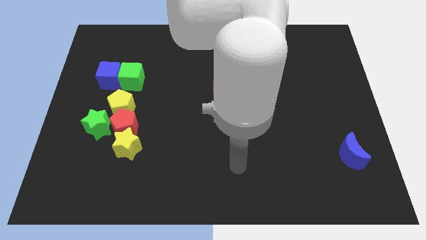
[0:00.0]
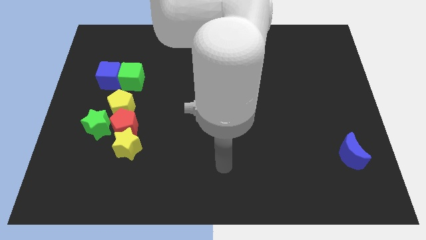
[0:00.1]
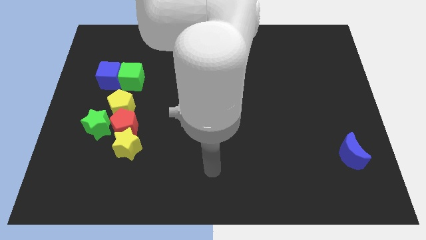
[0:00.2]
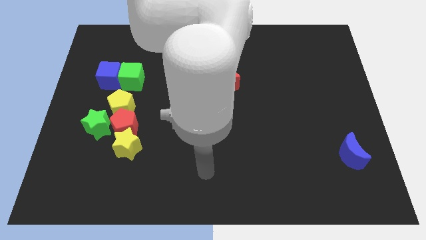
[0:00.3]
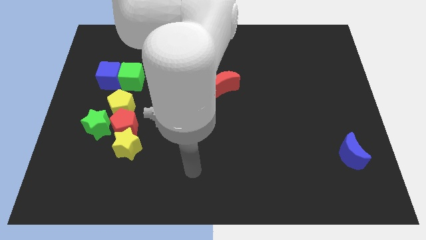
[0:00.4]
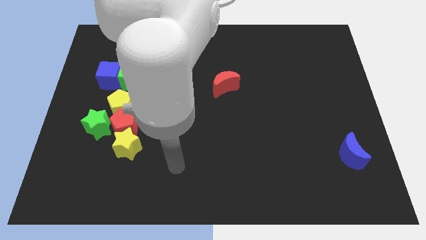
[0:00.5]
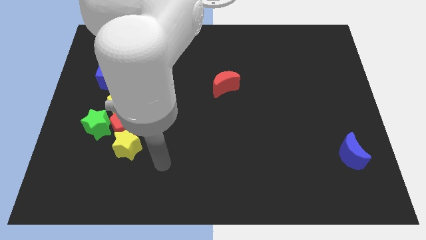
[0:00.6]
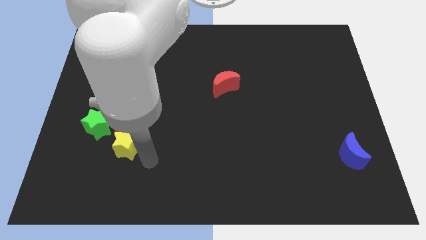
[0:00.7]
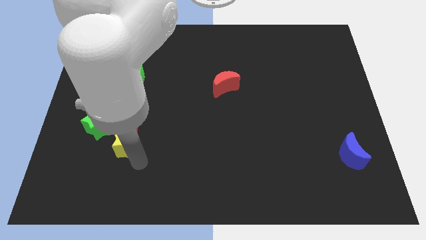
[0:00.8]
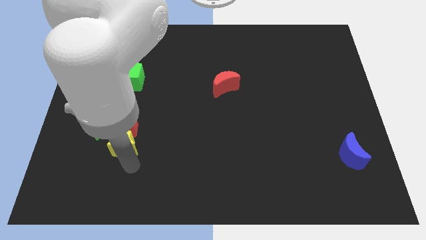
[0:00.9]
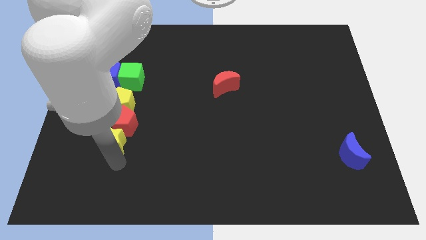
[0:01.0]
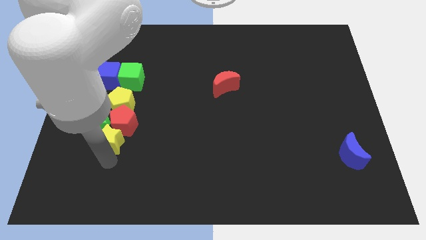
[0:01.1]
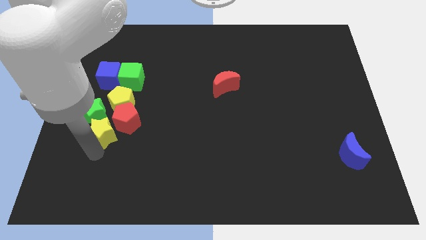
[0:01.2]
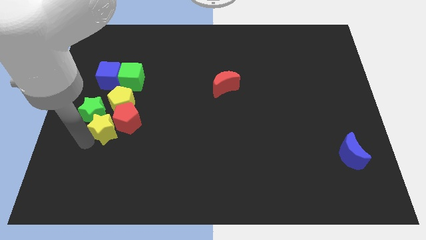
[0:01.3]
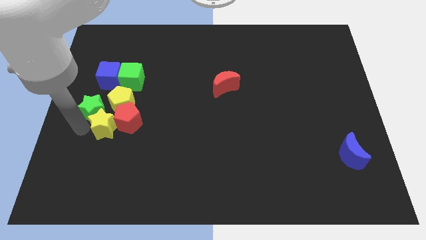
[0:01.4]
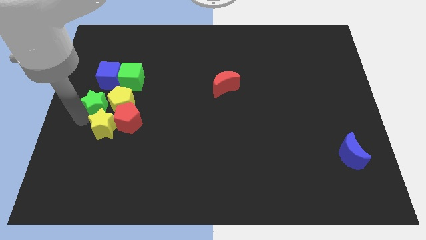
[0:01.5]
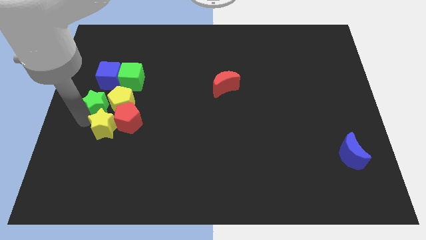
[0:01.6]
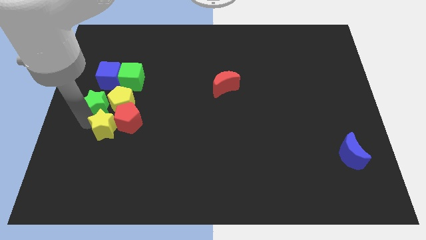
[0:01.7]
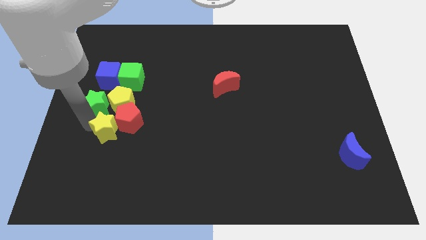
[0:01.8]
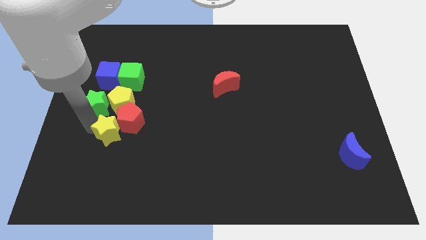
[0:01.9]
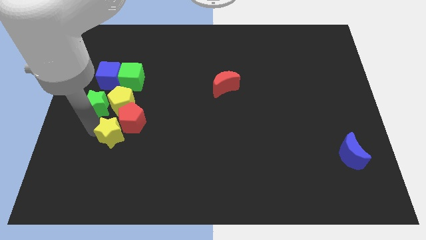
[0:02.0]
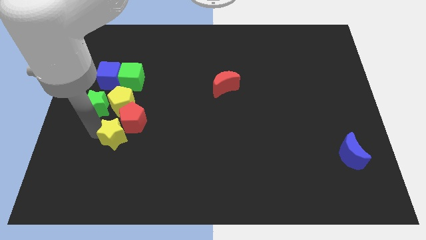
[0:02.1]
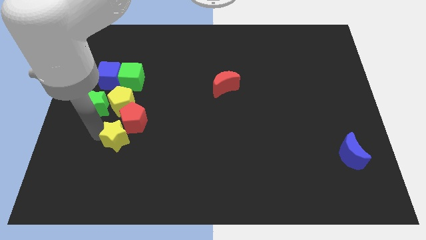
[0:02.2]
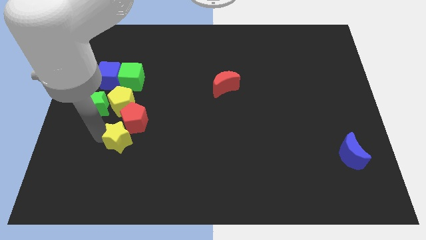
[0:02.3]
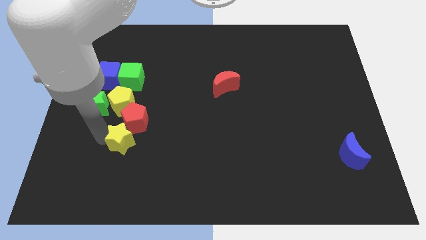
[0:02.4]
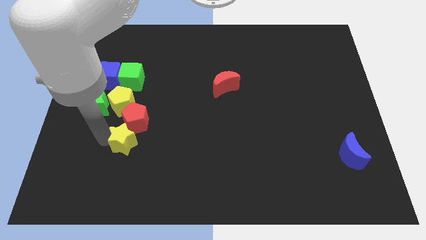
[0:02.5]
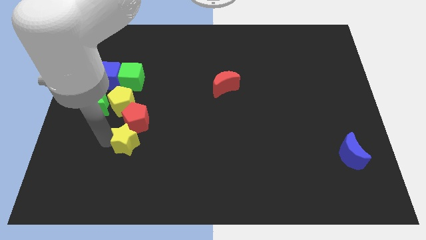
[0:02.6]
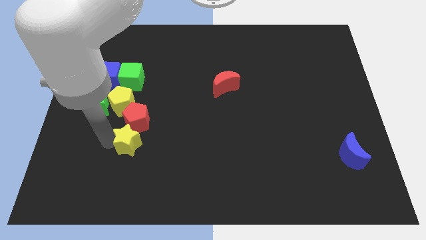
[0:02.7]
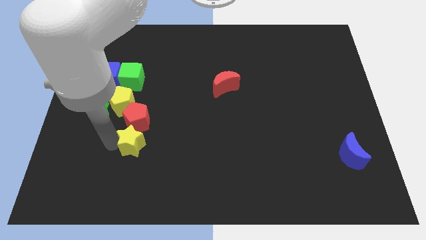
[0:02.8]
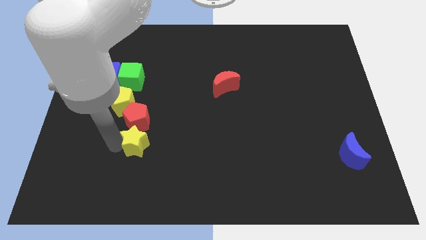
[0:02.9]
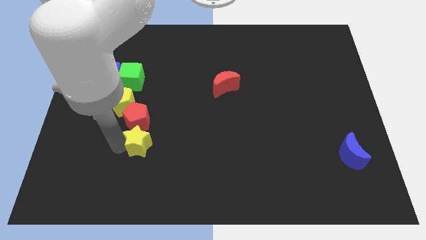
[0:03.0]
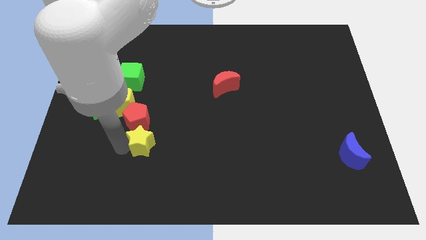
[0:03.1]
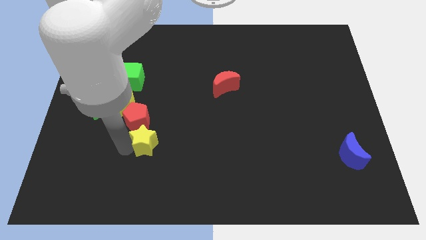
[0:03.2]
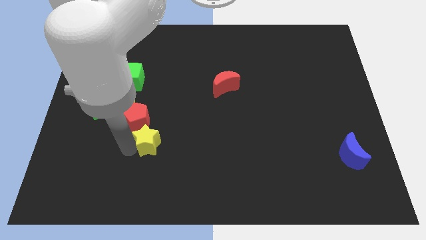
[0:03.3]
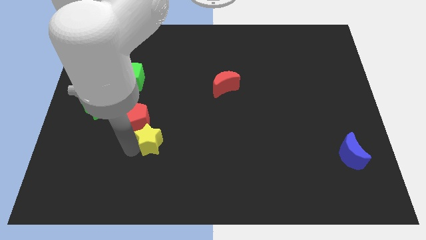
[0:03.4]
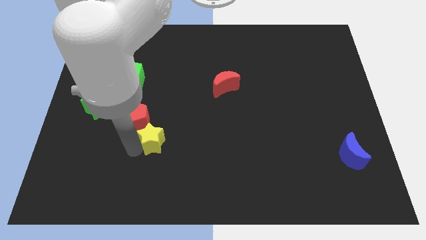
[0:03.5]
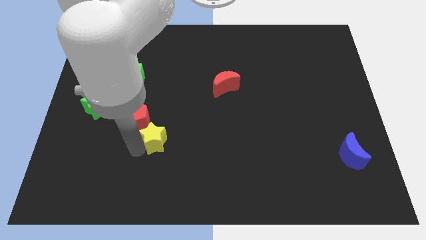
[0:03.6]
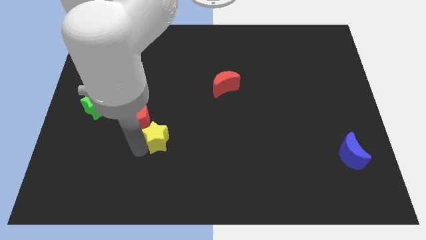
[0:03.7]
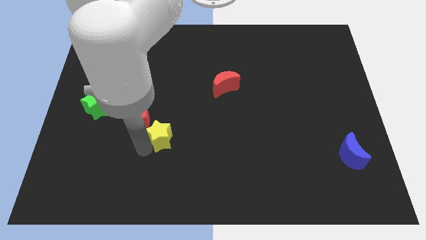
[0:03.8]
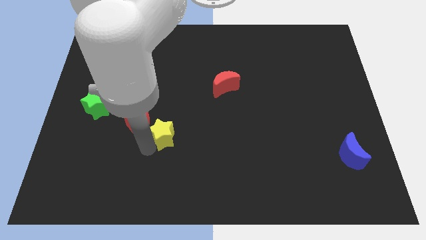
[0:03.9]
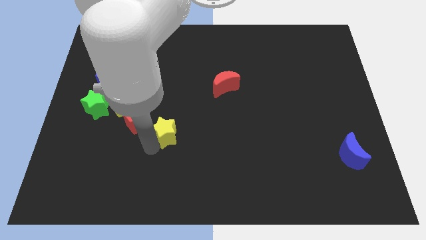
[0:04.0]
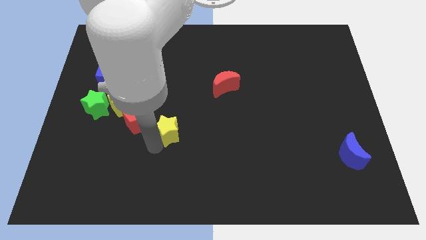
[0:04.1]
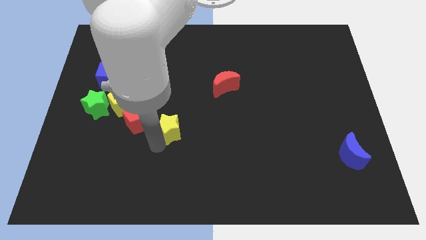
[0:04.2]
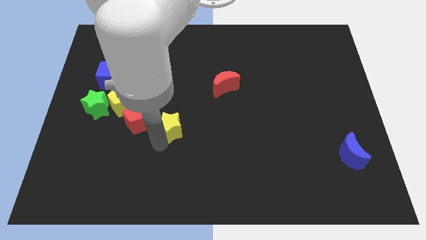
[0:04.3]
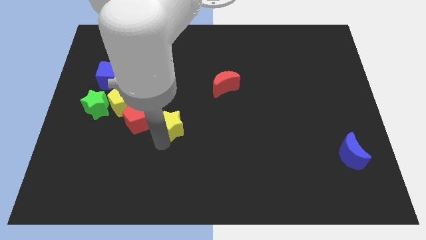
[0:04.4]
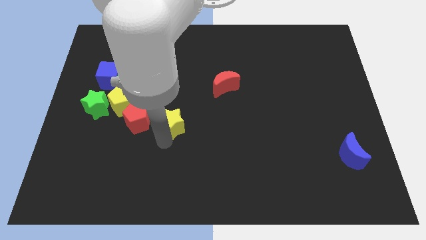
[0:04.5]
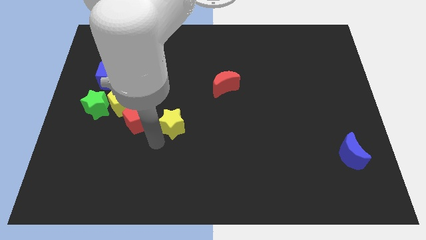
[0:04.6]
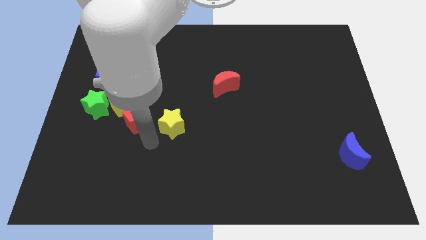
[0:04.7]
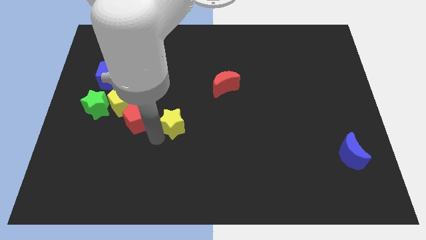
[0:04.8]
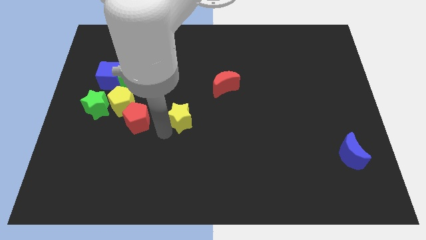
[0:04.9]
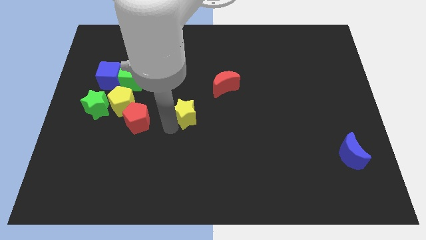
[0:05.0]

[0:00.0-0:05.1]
slide the yellow star diagonally down and to the left of the red moon

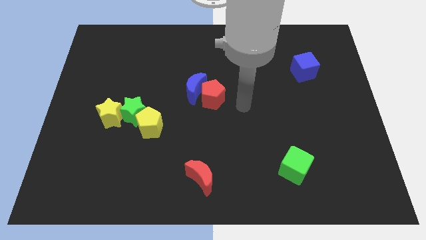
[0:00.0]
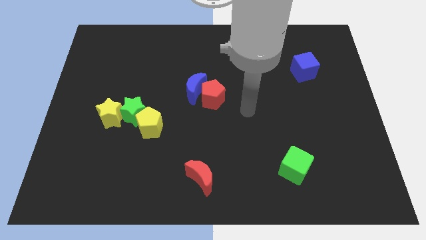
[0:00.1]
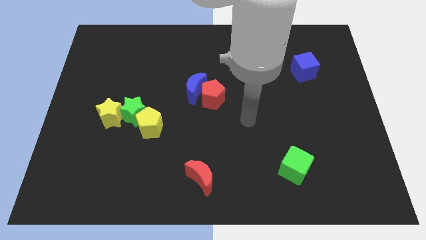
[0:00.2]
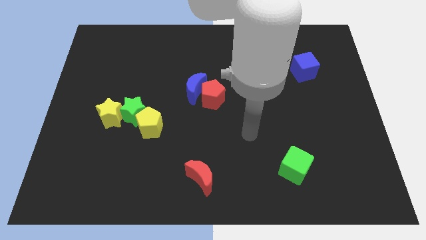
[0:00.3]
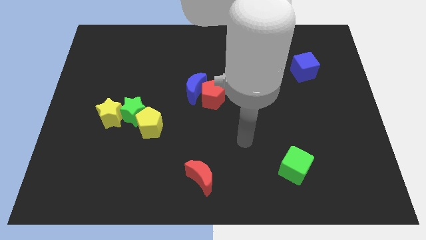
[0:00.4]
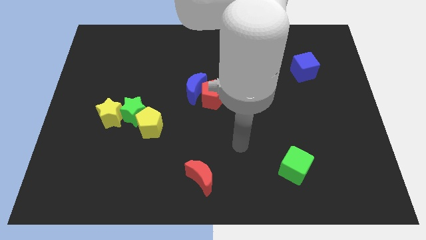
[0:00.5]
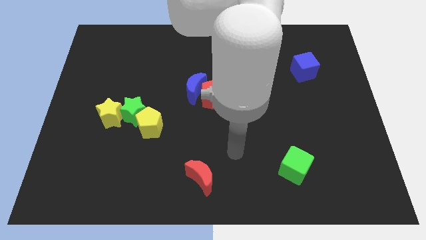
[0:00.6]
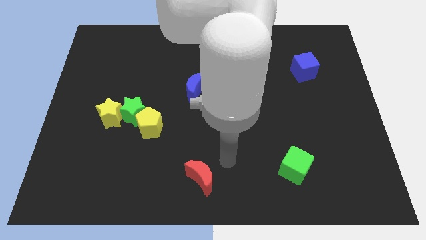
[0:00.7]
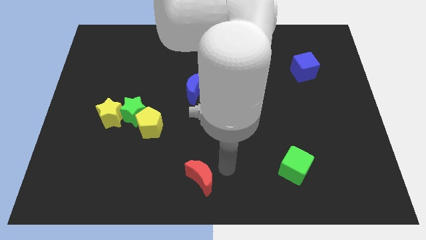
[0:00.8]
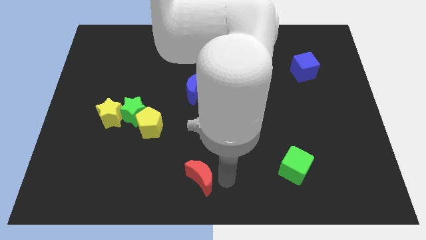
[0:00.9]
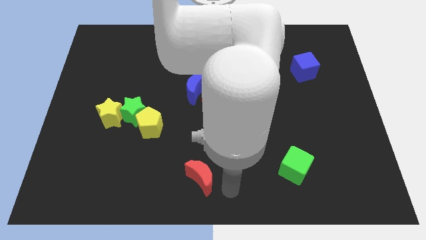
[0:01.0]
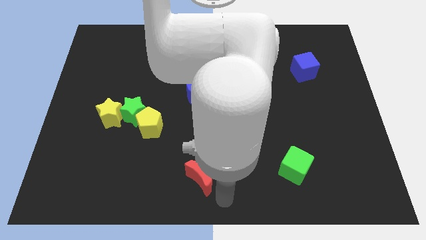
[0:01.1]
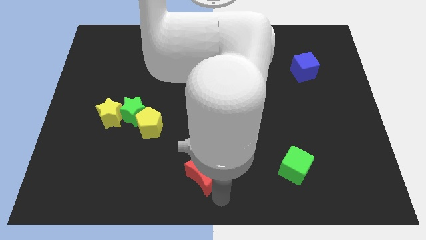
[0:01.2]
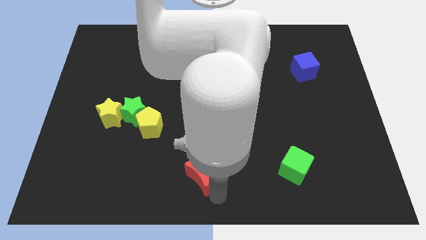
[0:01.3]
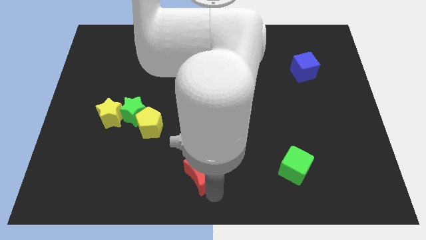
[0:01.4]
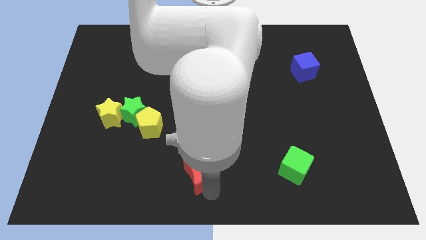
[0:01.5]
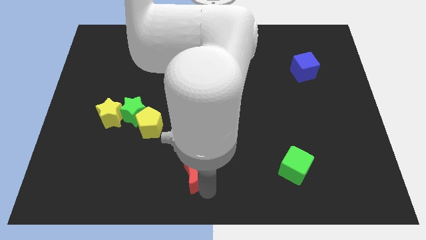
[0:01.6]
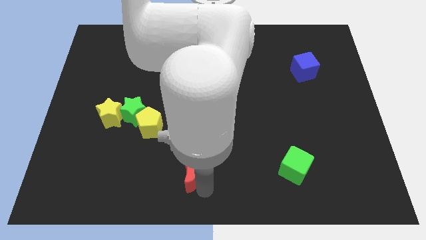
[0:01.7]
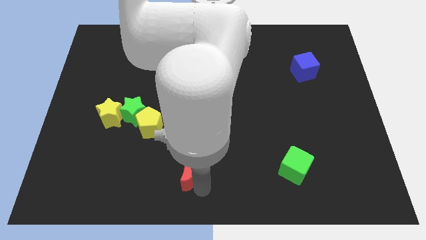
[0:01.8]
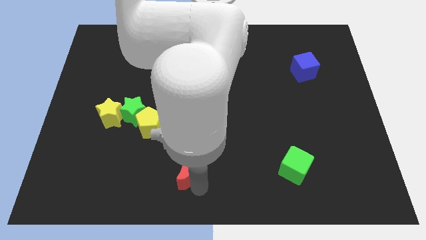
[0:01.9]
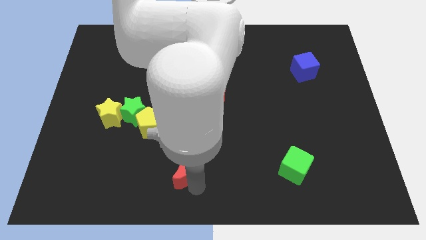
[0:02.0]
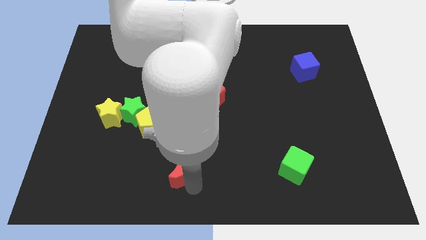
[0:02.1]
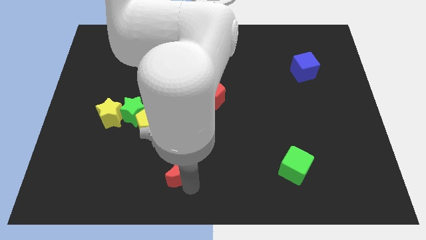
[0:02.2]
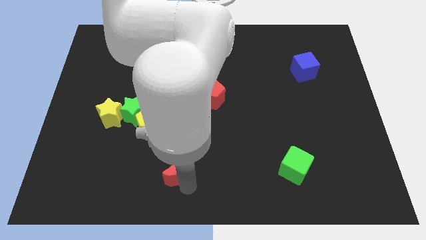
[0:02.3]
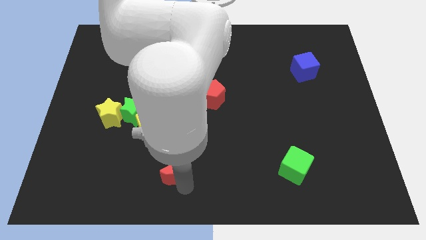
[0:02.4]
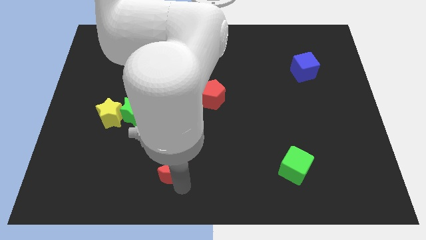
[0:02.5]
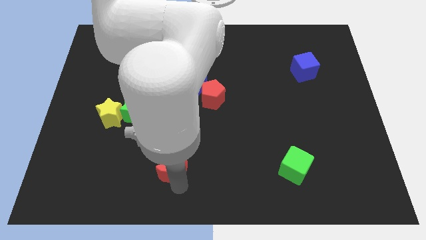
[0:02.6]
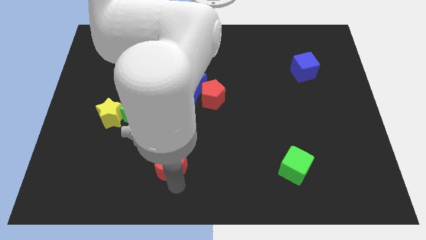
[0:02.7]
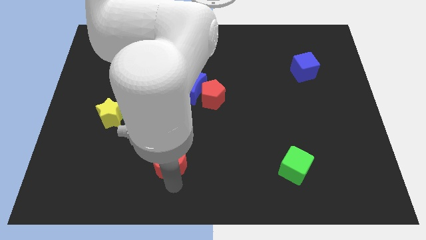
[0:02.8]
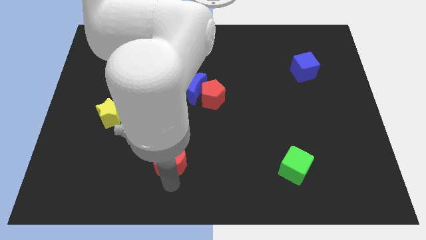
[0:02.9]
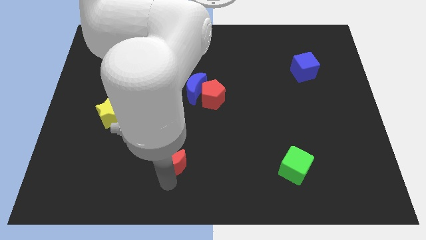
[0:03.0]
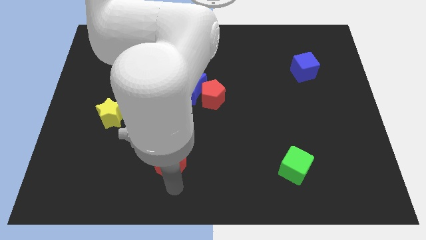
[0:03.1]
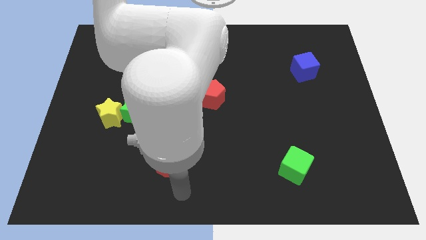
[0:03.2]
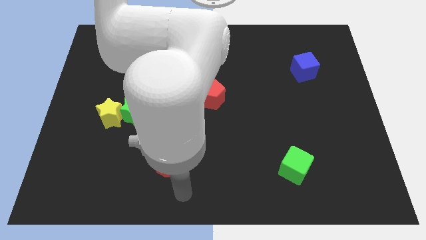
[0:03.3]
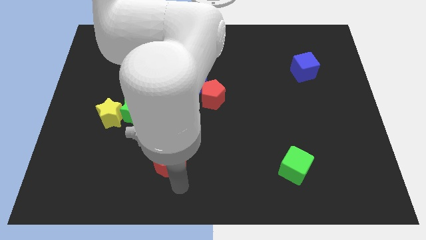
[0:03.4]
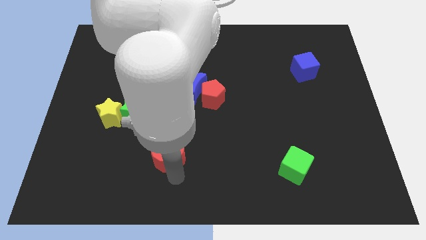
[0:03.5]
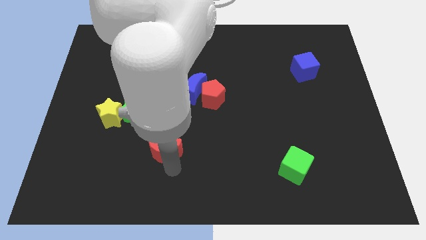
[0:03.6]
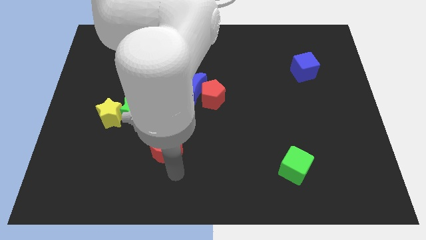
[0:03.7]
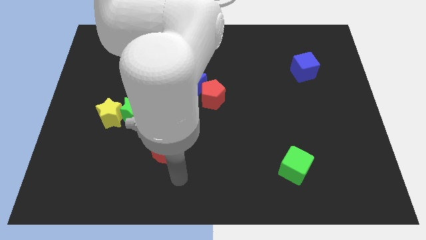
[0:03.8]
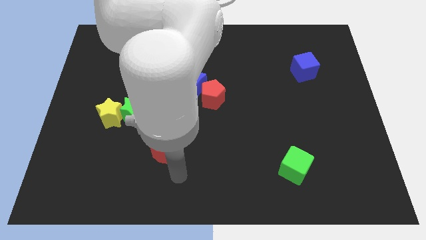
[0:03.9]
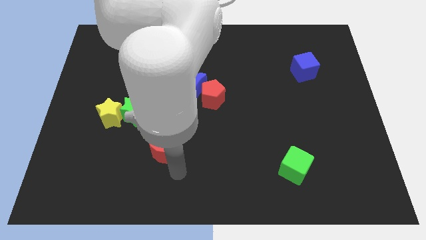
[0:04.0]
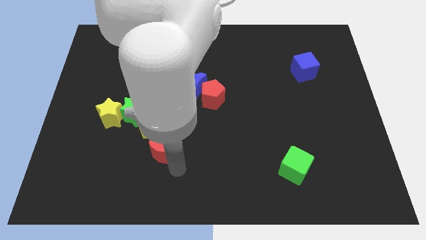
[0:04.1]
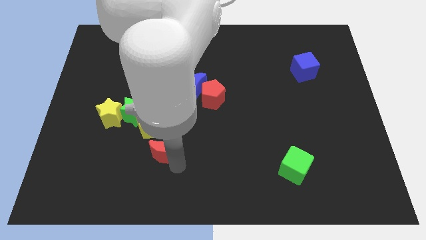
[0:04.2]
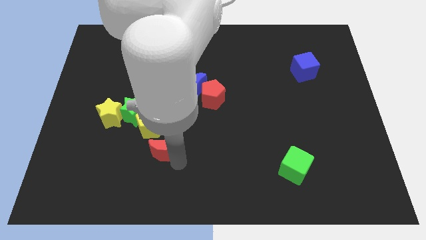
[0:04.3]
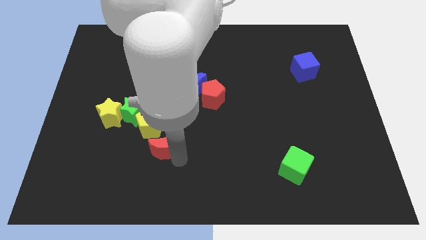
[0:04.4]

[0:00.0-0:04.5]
put the red moon to the bottom right side of the green star
